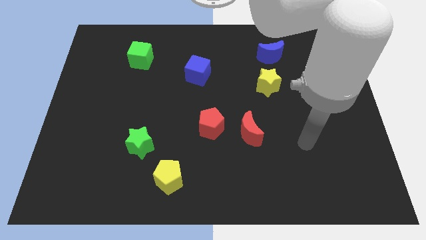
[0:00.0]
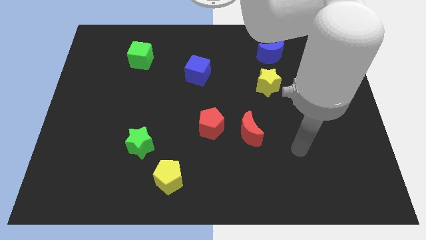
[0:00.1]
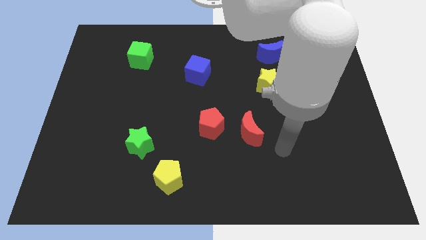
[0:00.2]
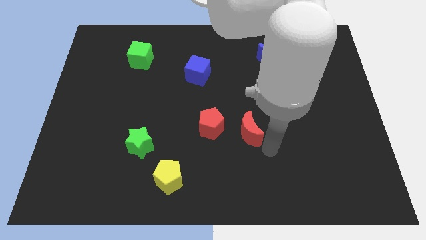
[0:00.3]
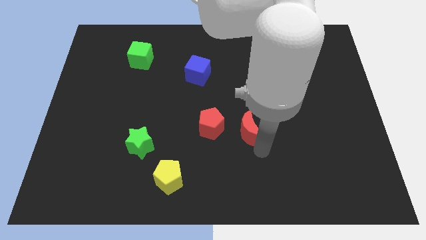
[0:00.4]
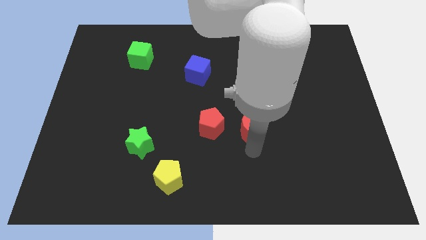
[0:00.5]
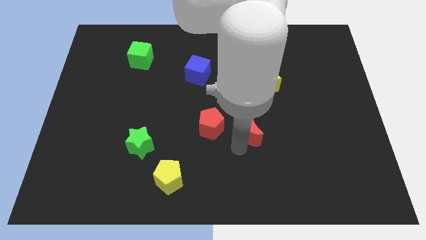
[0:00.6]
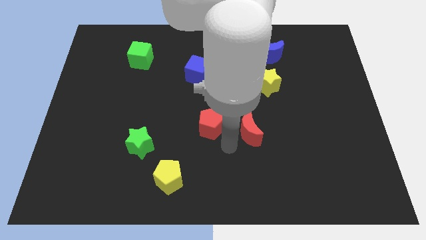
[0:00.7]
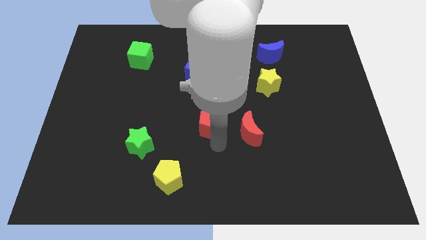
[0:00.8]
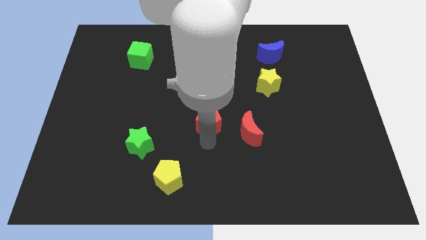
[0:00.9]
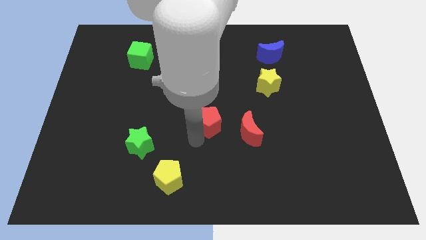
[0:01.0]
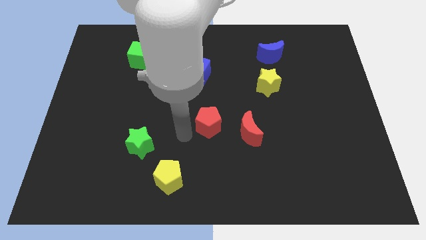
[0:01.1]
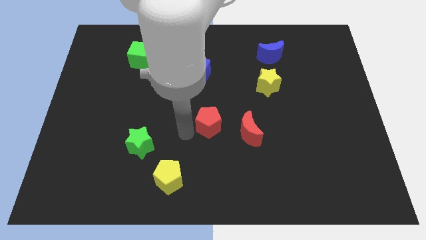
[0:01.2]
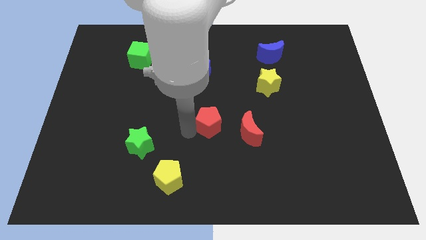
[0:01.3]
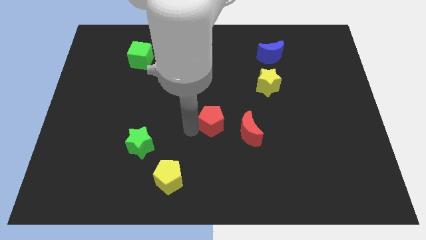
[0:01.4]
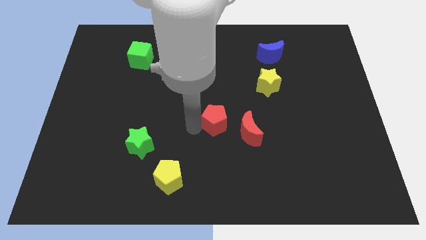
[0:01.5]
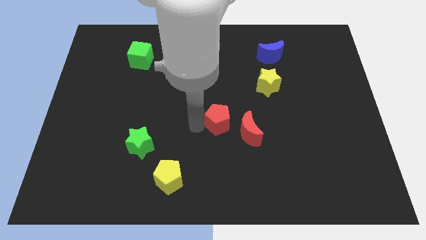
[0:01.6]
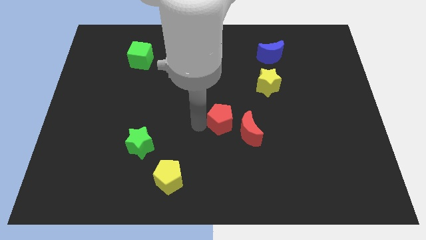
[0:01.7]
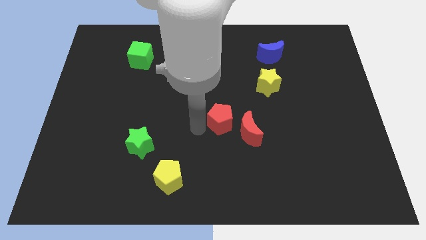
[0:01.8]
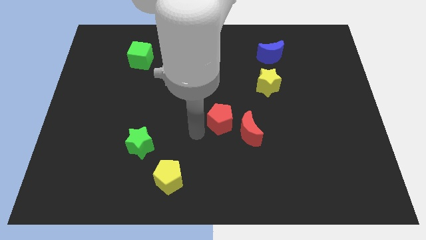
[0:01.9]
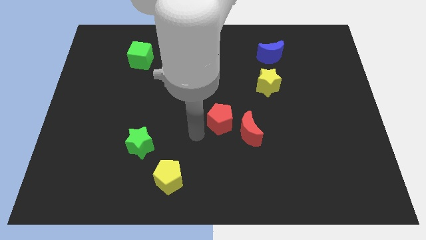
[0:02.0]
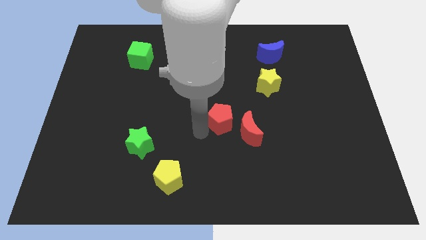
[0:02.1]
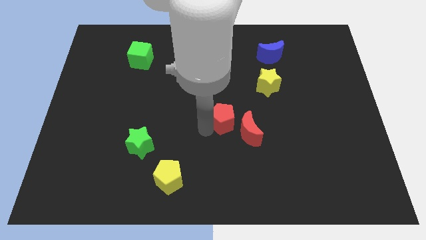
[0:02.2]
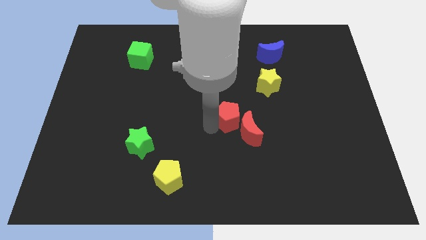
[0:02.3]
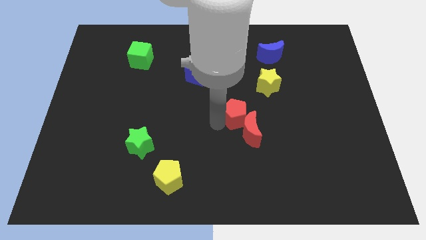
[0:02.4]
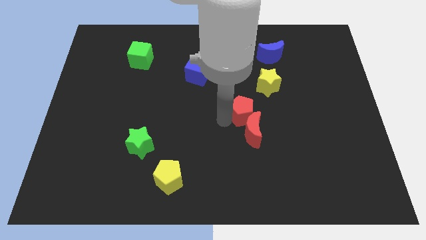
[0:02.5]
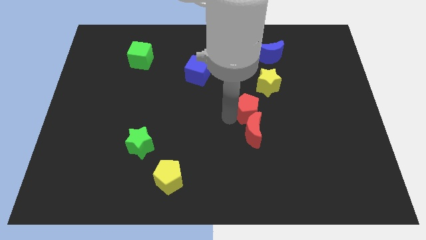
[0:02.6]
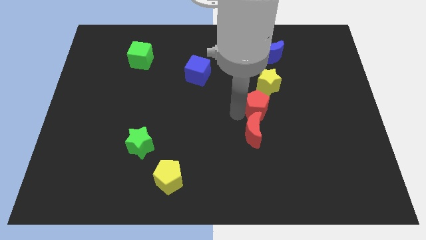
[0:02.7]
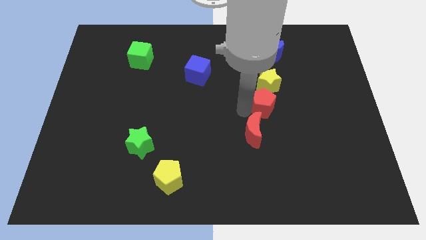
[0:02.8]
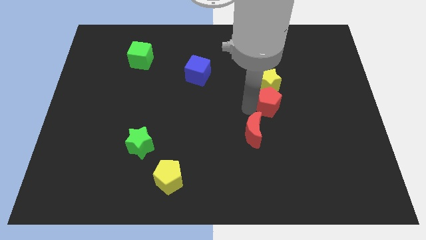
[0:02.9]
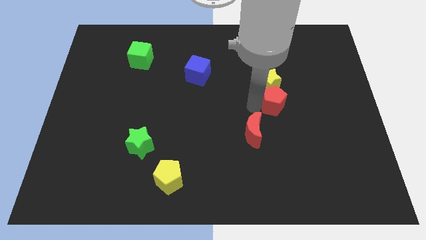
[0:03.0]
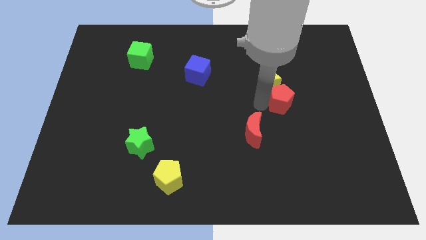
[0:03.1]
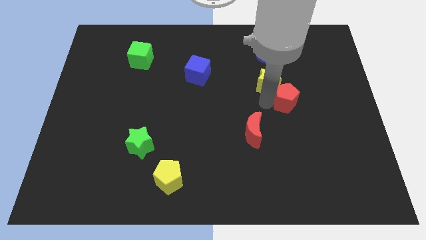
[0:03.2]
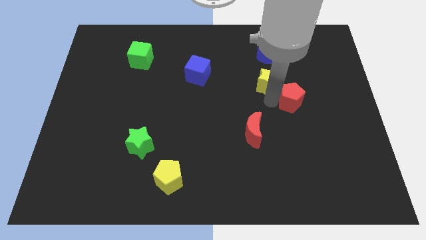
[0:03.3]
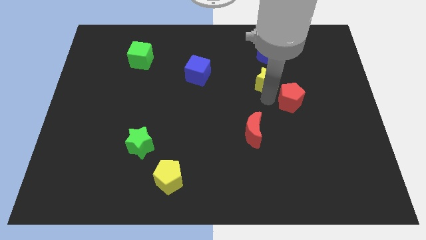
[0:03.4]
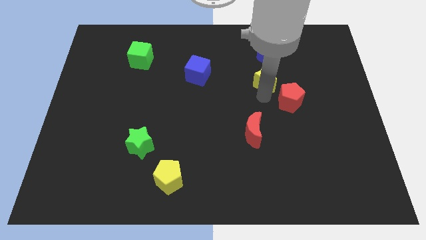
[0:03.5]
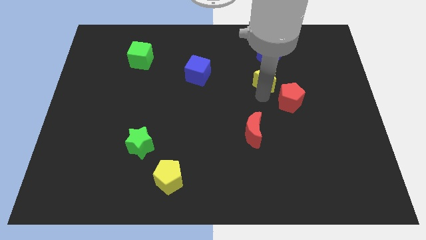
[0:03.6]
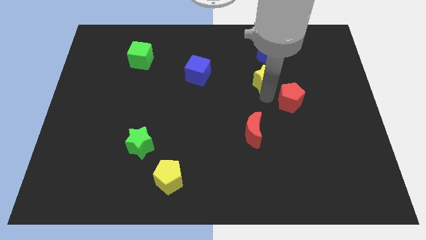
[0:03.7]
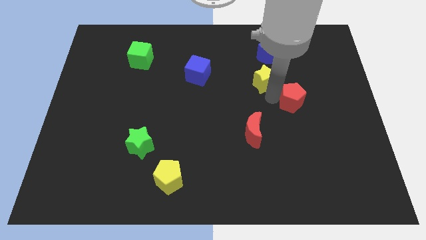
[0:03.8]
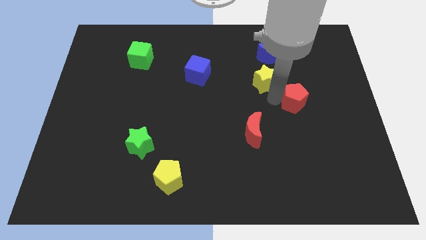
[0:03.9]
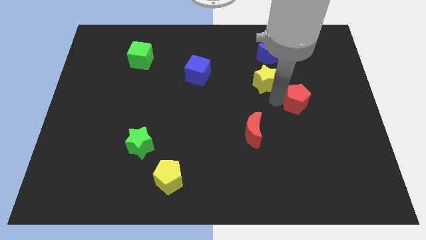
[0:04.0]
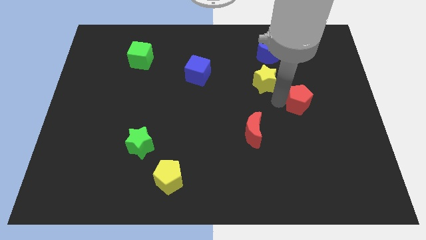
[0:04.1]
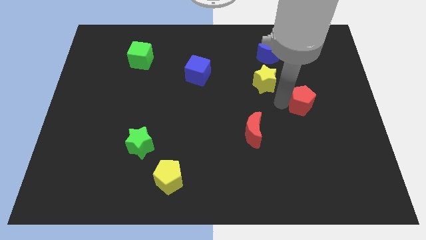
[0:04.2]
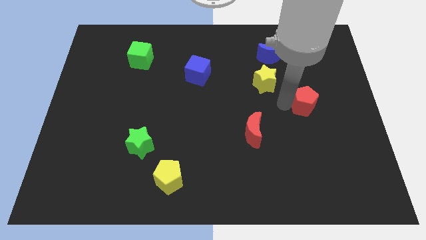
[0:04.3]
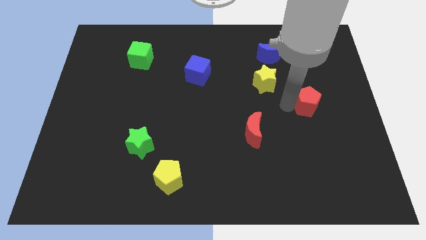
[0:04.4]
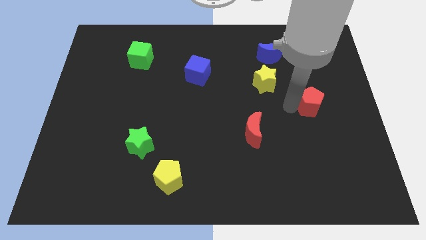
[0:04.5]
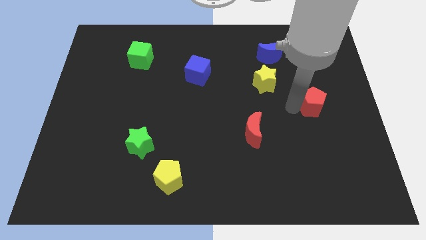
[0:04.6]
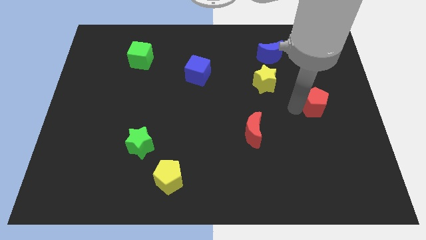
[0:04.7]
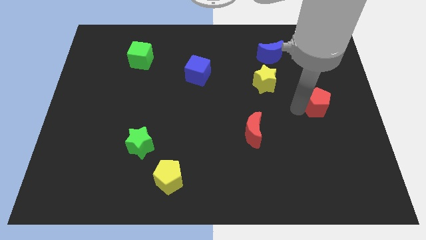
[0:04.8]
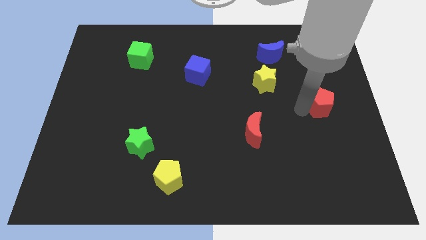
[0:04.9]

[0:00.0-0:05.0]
put the red pentagon to the right side of the board

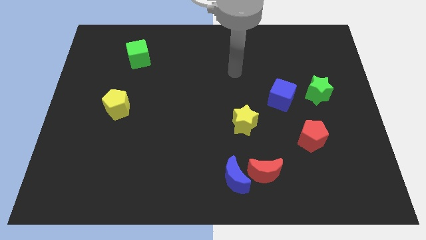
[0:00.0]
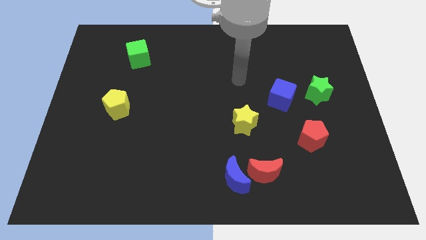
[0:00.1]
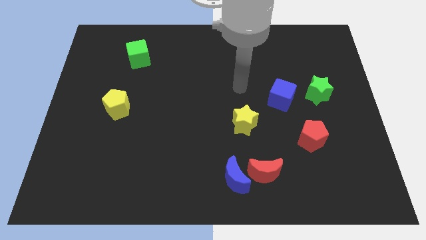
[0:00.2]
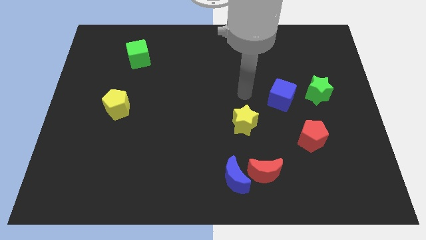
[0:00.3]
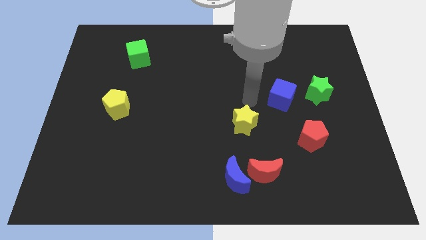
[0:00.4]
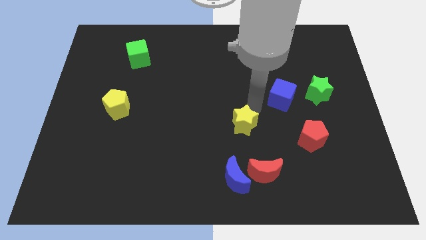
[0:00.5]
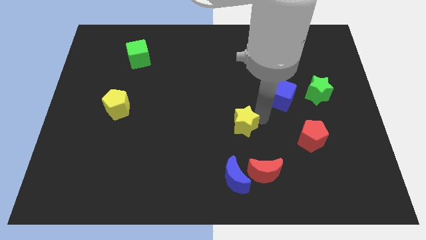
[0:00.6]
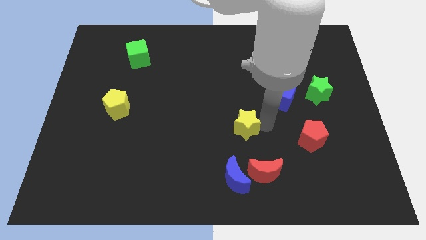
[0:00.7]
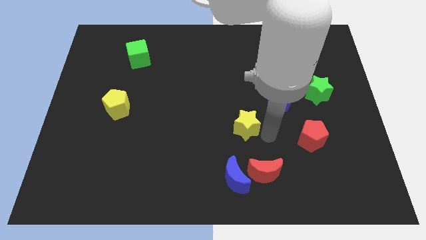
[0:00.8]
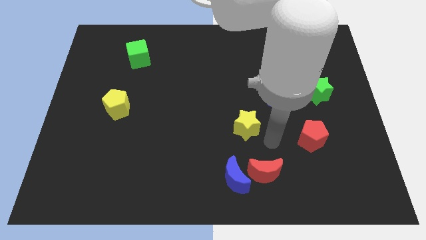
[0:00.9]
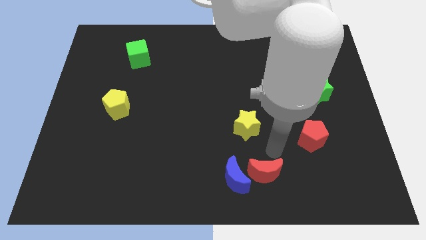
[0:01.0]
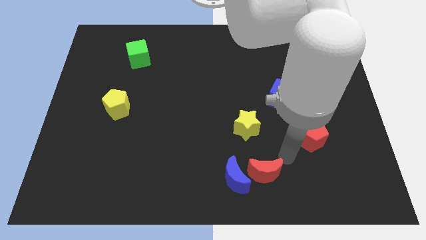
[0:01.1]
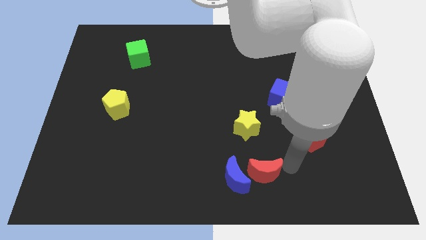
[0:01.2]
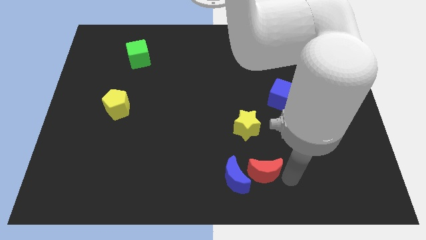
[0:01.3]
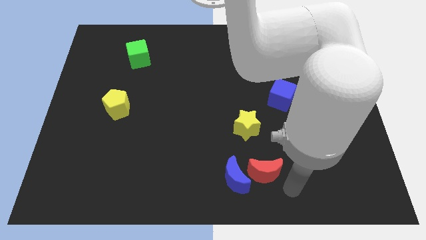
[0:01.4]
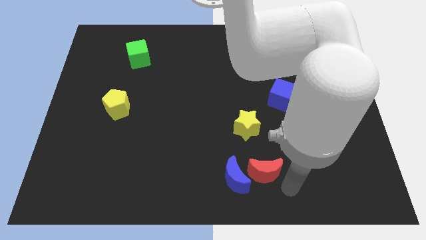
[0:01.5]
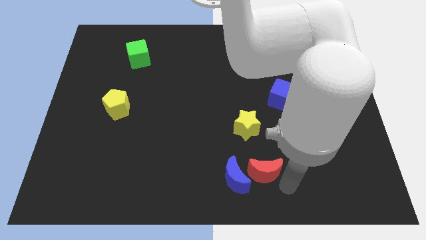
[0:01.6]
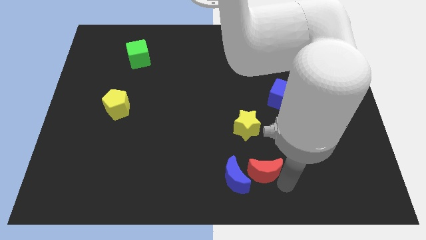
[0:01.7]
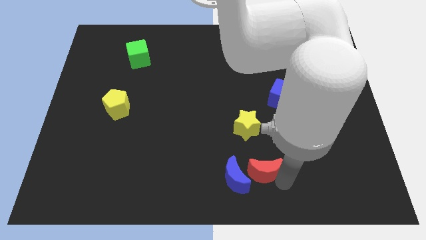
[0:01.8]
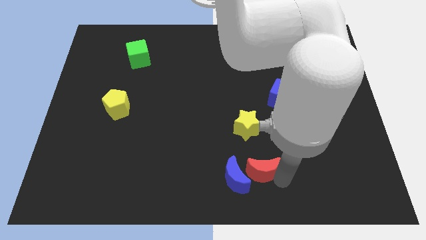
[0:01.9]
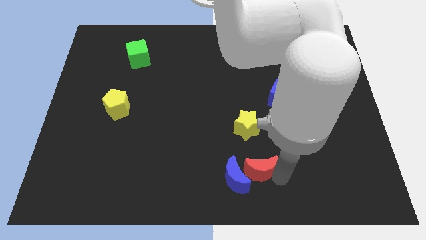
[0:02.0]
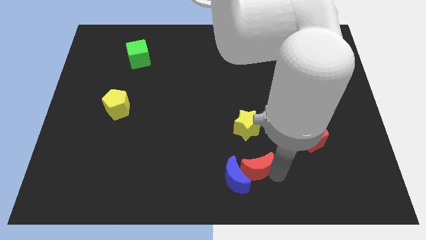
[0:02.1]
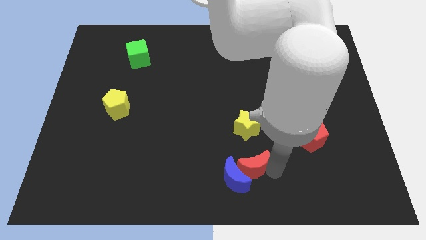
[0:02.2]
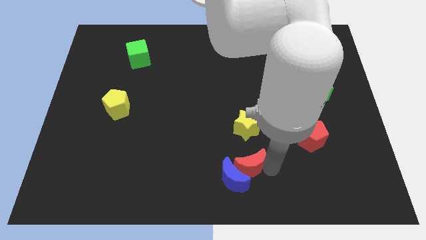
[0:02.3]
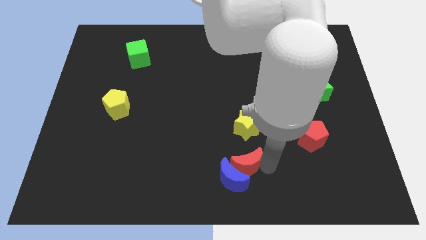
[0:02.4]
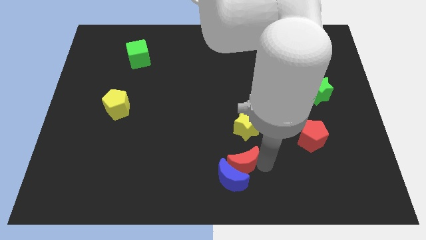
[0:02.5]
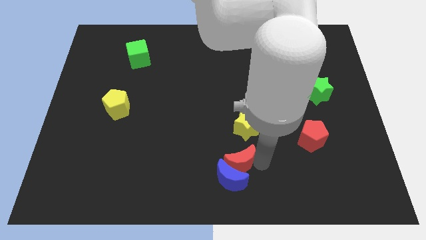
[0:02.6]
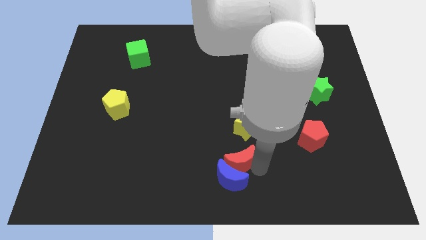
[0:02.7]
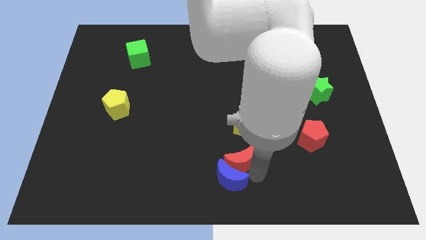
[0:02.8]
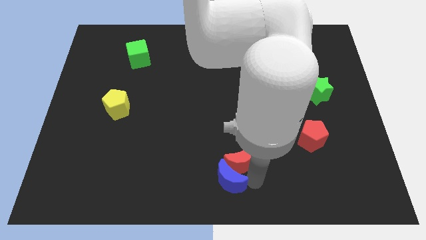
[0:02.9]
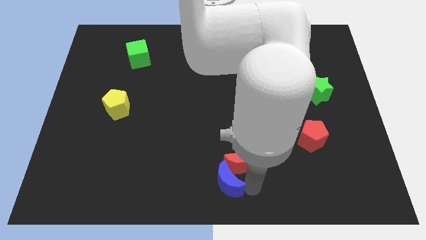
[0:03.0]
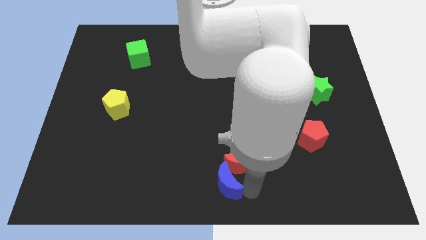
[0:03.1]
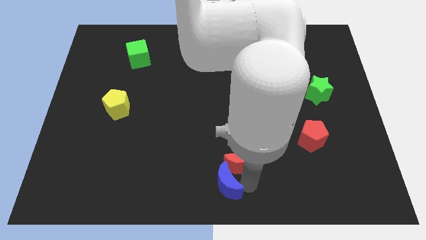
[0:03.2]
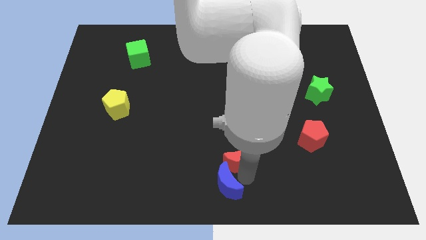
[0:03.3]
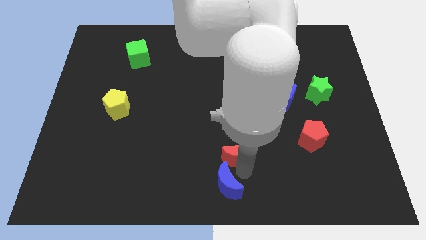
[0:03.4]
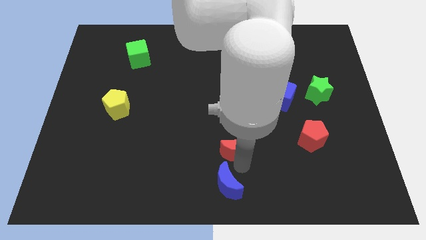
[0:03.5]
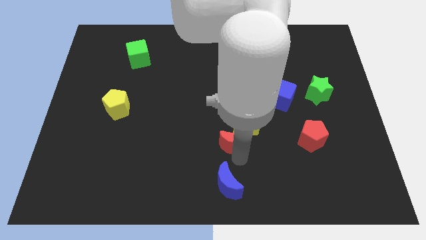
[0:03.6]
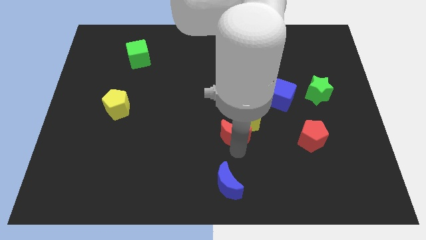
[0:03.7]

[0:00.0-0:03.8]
move the red moon to the center of the board
